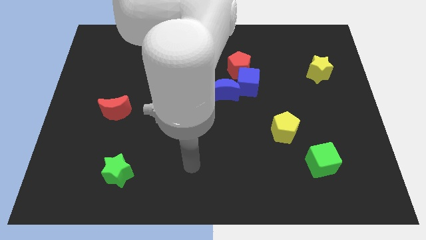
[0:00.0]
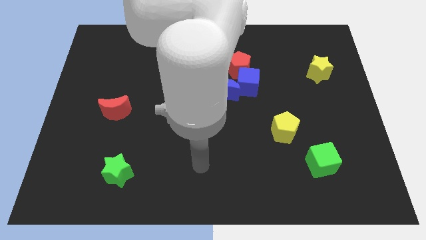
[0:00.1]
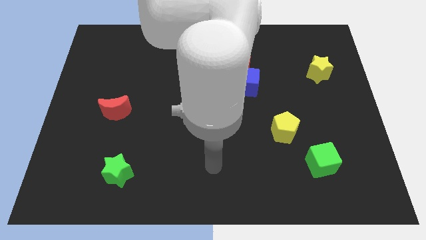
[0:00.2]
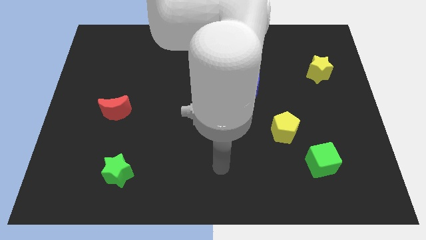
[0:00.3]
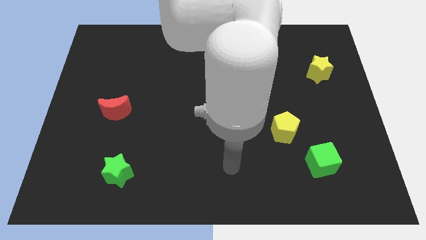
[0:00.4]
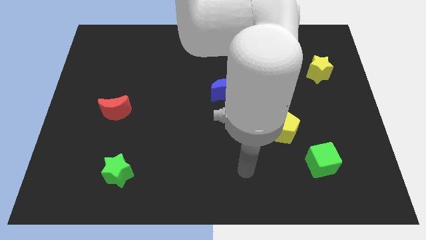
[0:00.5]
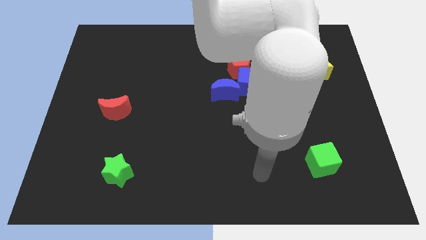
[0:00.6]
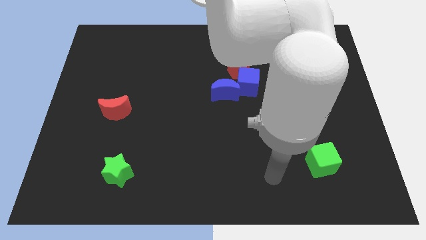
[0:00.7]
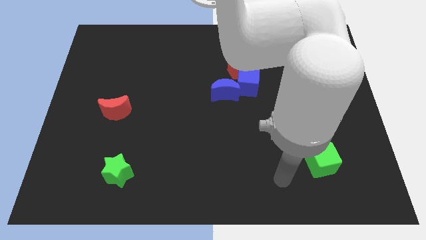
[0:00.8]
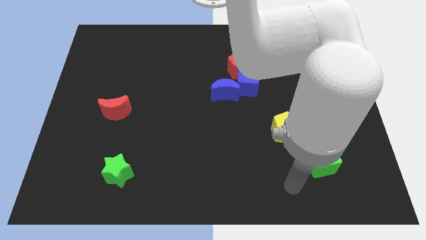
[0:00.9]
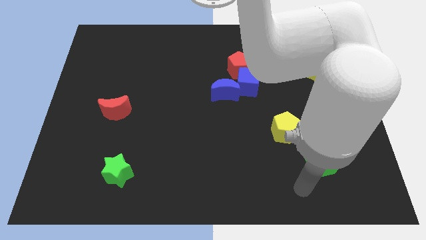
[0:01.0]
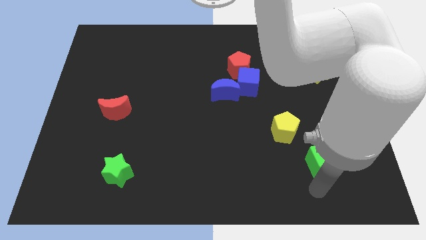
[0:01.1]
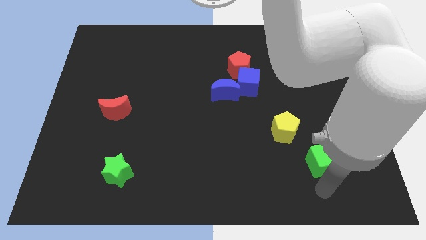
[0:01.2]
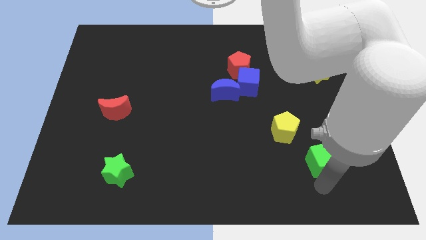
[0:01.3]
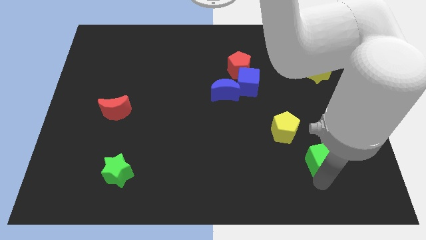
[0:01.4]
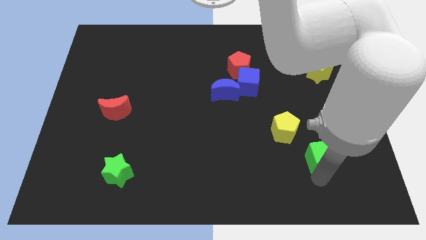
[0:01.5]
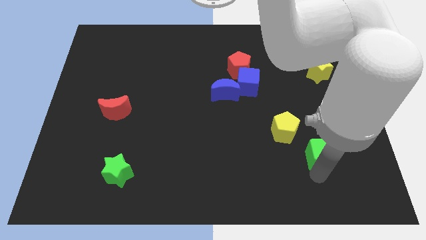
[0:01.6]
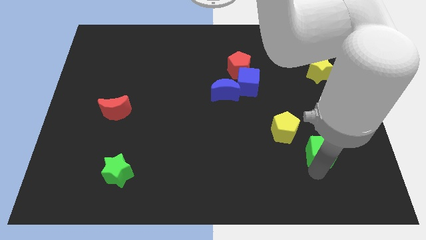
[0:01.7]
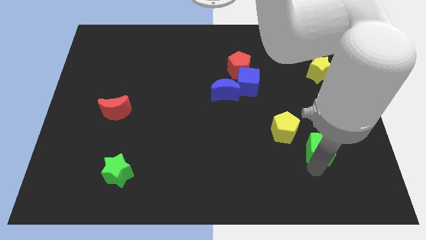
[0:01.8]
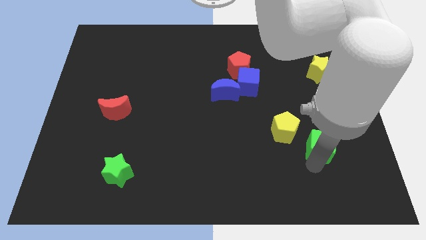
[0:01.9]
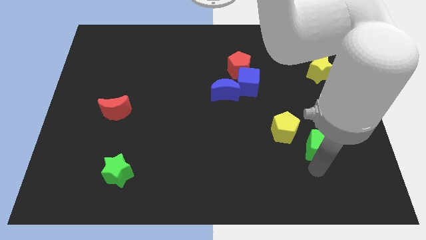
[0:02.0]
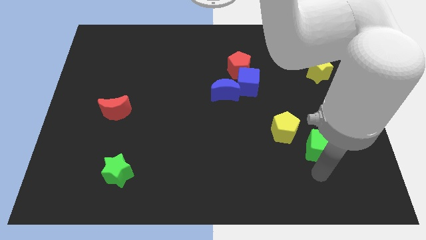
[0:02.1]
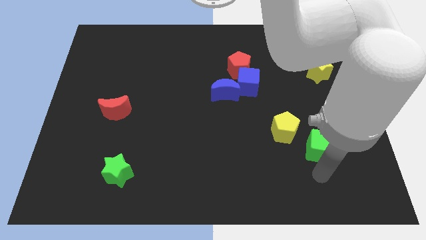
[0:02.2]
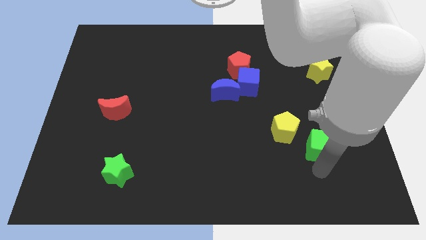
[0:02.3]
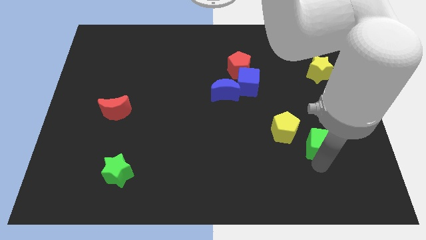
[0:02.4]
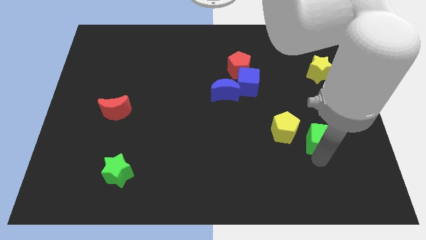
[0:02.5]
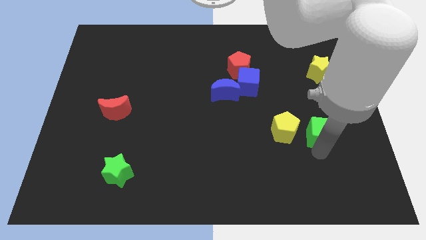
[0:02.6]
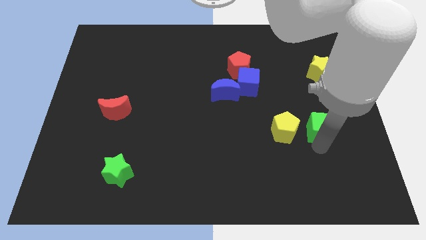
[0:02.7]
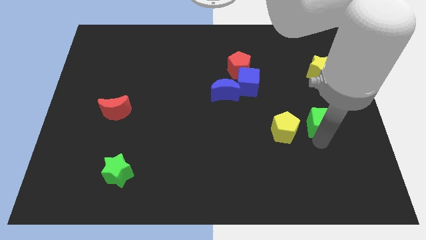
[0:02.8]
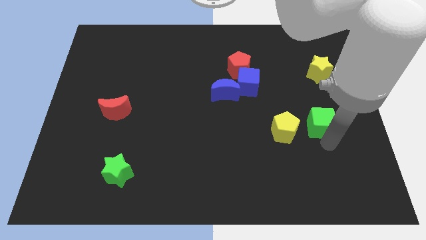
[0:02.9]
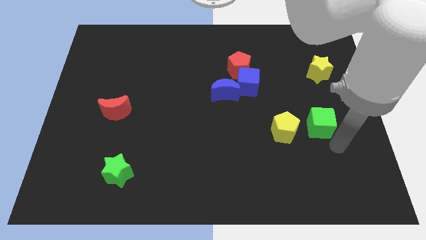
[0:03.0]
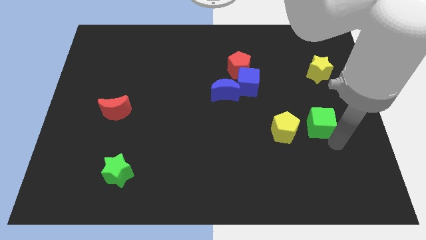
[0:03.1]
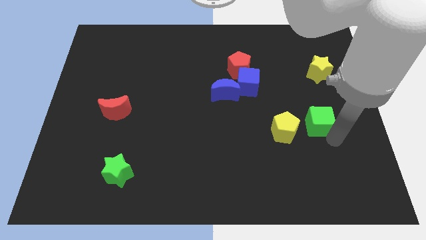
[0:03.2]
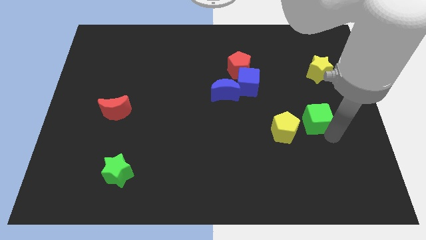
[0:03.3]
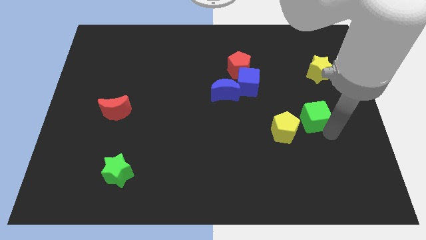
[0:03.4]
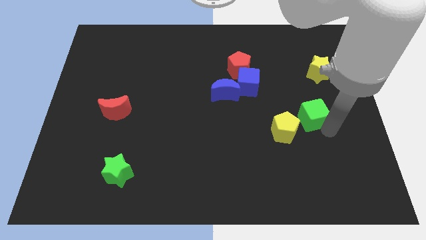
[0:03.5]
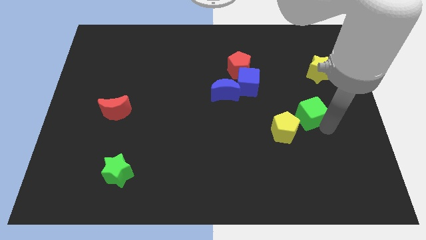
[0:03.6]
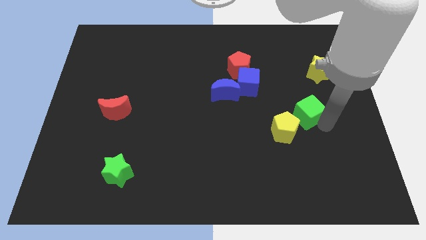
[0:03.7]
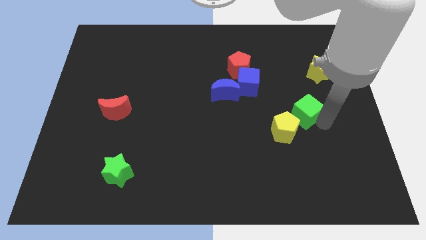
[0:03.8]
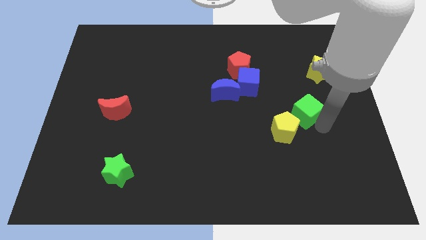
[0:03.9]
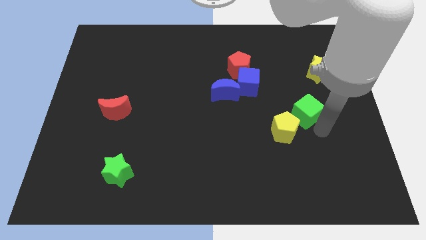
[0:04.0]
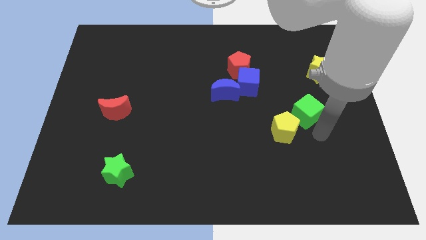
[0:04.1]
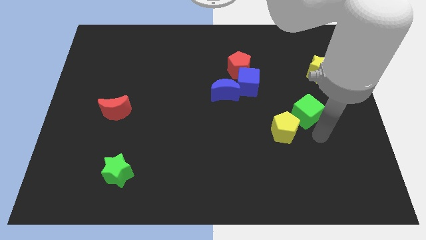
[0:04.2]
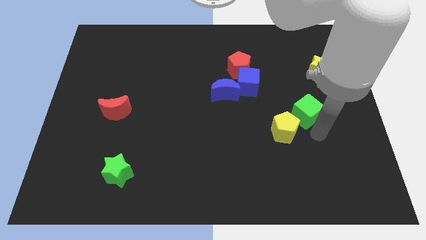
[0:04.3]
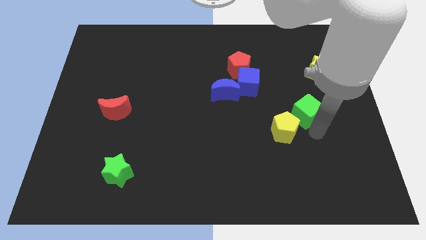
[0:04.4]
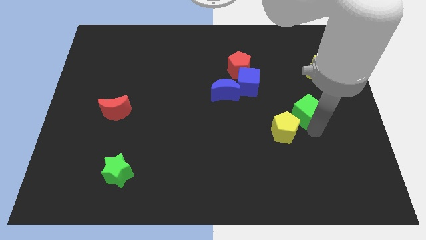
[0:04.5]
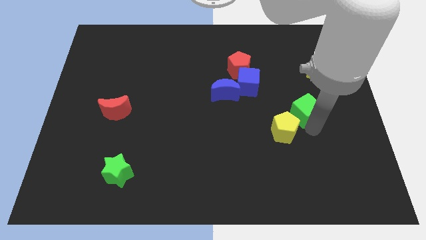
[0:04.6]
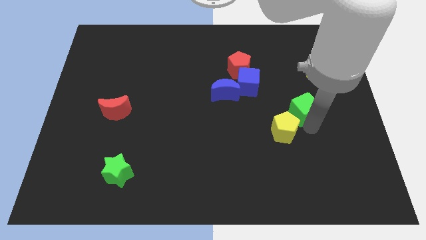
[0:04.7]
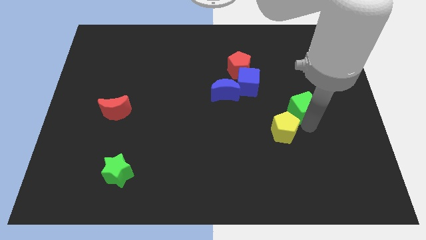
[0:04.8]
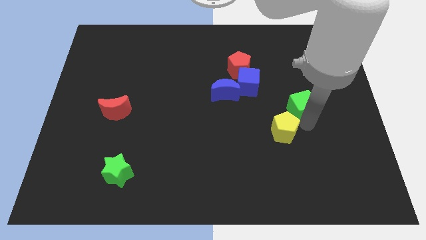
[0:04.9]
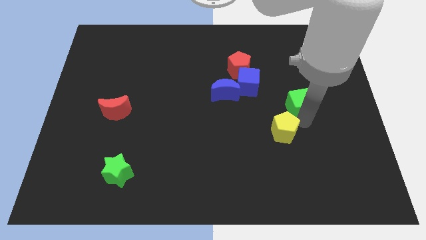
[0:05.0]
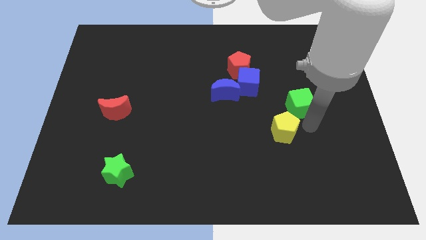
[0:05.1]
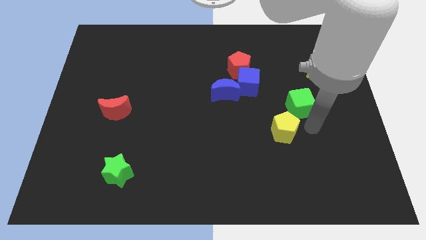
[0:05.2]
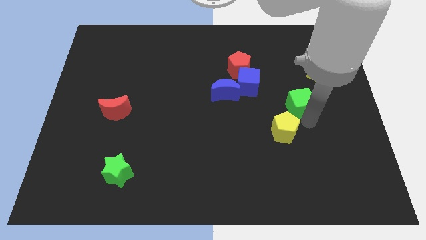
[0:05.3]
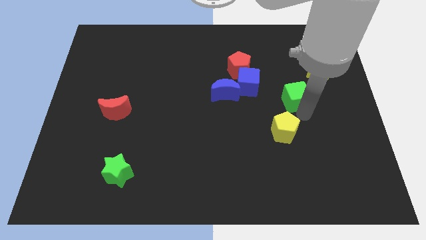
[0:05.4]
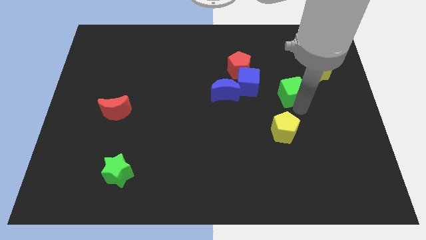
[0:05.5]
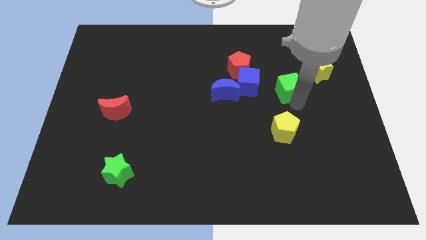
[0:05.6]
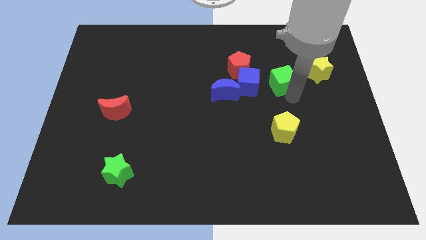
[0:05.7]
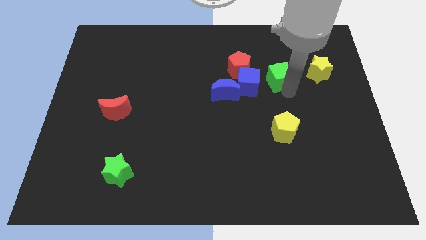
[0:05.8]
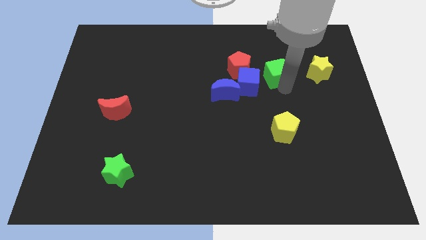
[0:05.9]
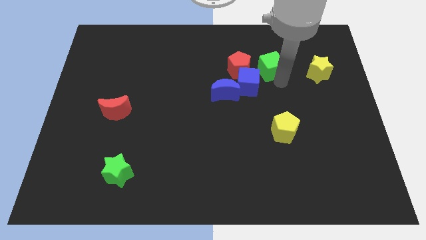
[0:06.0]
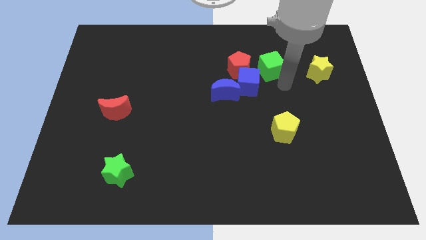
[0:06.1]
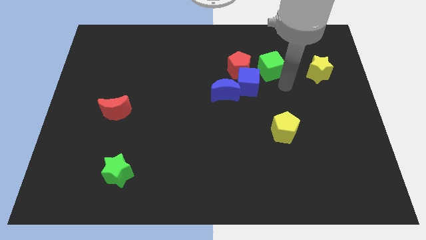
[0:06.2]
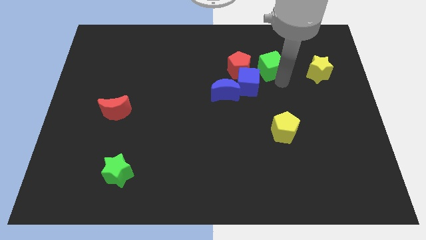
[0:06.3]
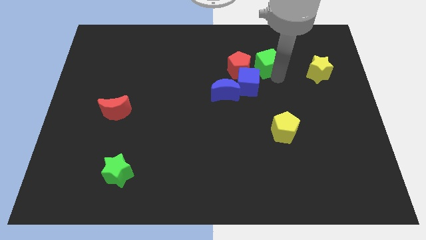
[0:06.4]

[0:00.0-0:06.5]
put the green cube diagonally up and to the right of the red pentagon

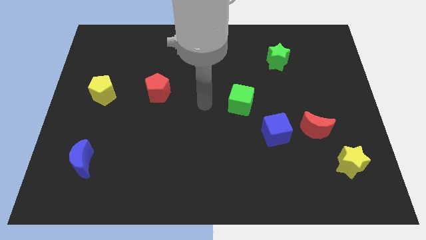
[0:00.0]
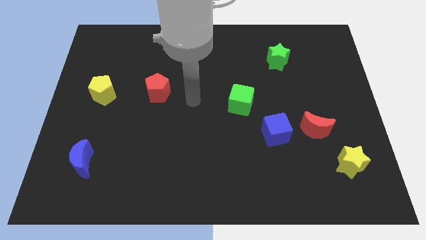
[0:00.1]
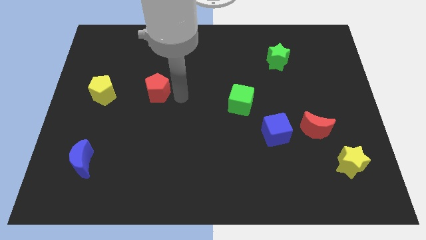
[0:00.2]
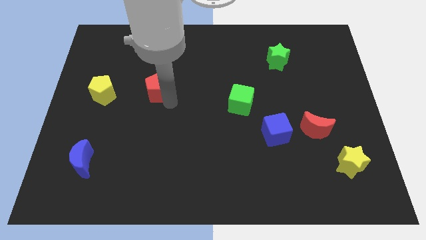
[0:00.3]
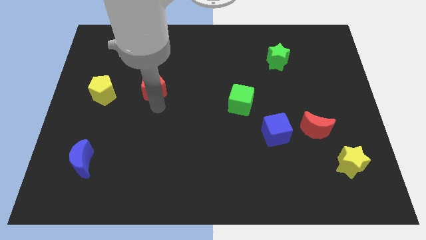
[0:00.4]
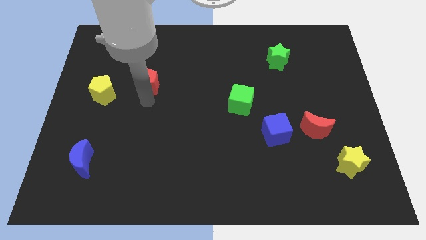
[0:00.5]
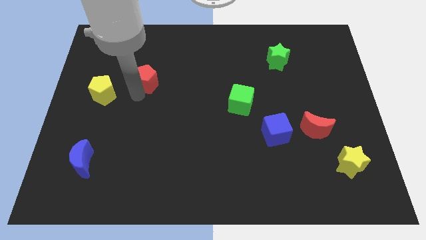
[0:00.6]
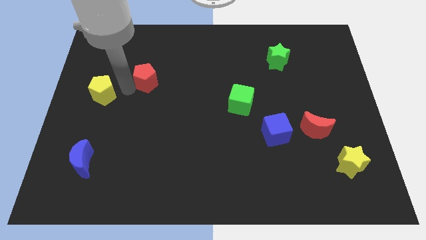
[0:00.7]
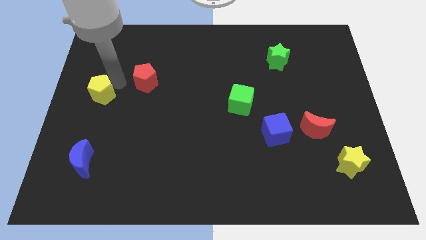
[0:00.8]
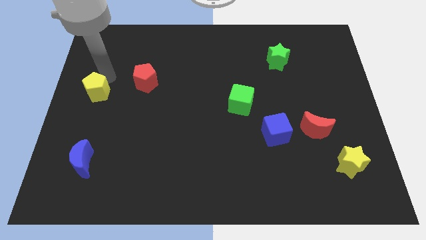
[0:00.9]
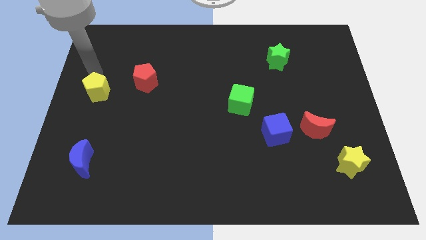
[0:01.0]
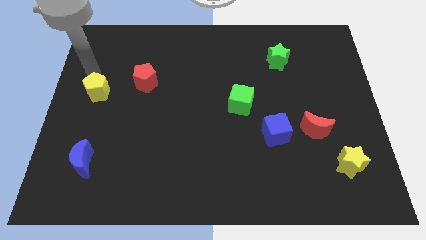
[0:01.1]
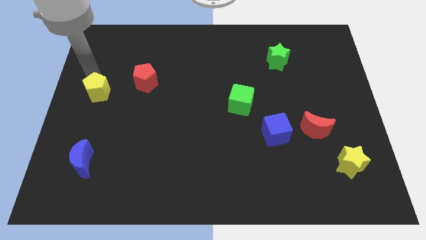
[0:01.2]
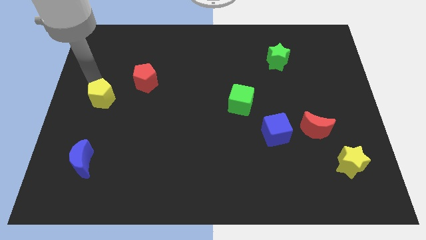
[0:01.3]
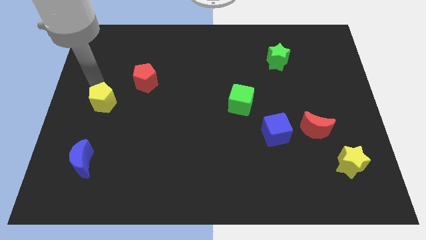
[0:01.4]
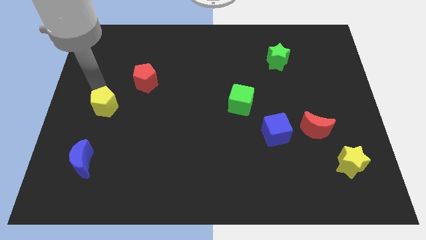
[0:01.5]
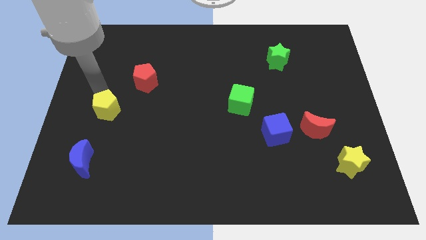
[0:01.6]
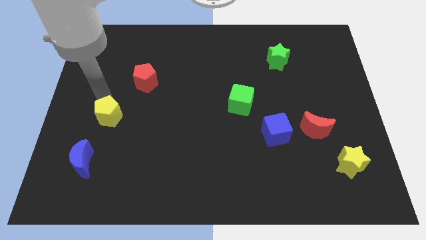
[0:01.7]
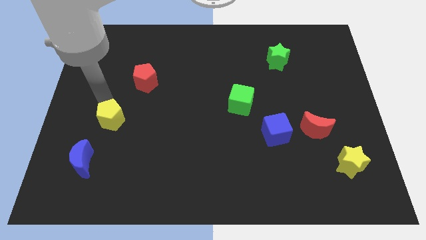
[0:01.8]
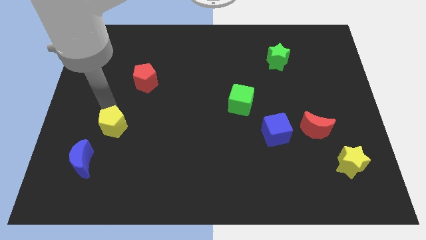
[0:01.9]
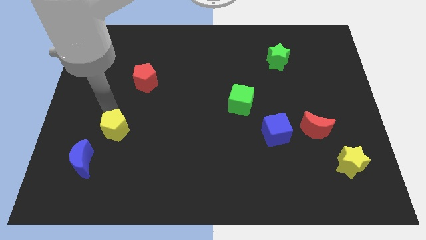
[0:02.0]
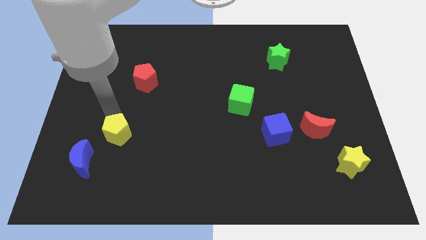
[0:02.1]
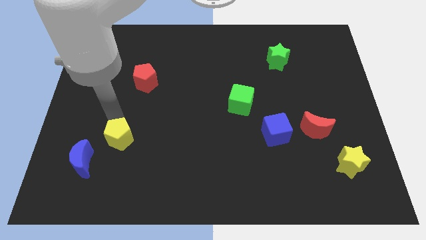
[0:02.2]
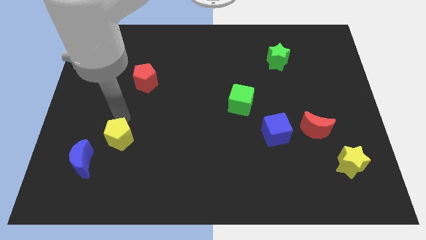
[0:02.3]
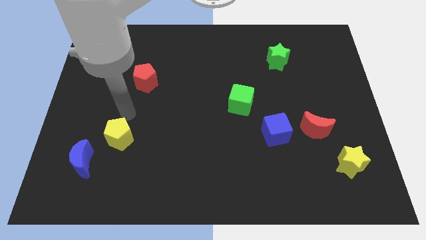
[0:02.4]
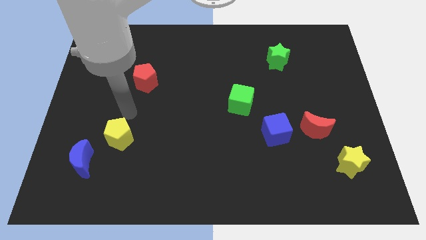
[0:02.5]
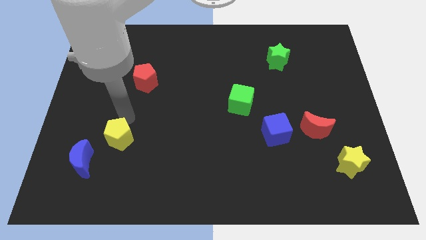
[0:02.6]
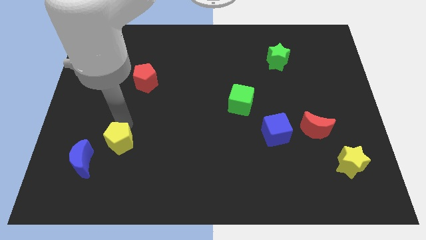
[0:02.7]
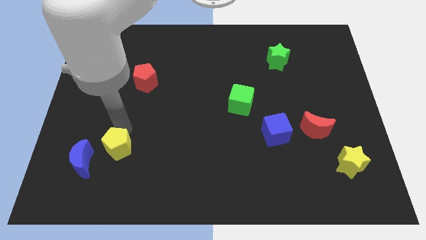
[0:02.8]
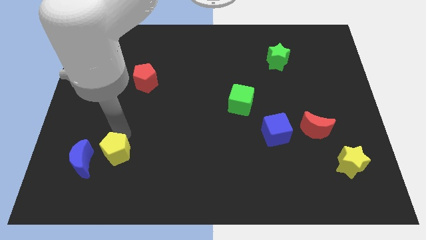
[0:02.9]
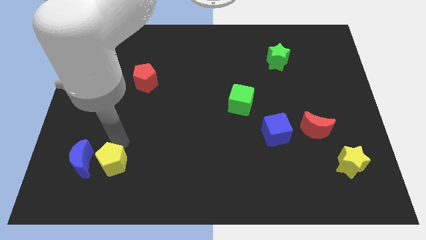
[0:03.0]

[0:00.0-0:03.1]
put the yellow pentagon to the bottom right of the blue moon
